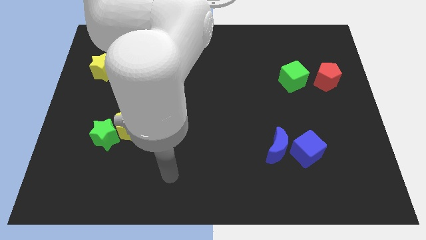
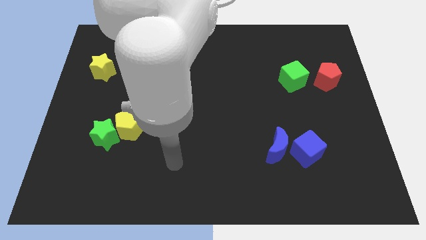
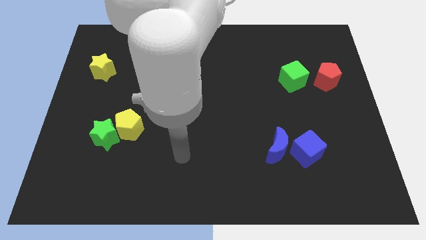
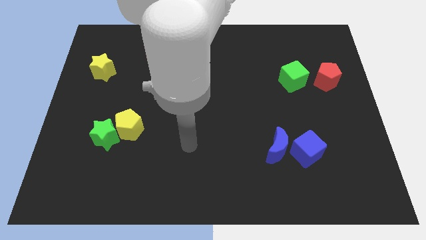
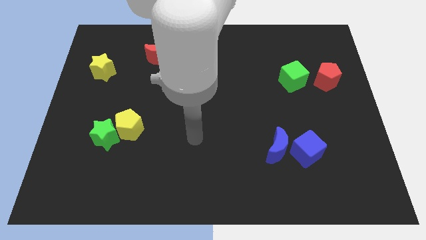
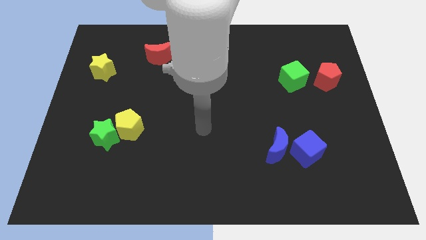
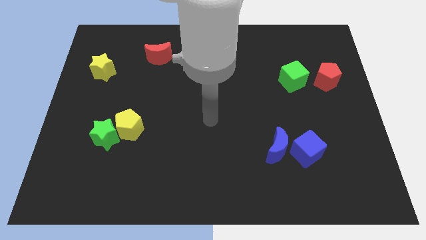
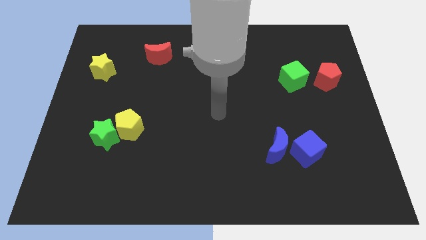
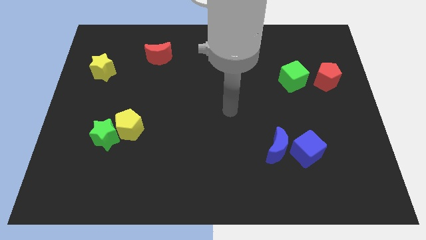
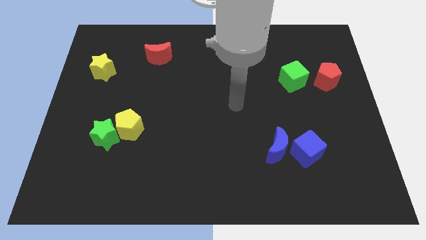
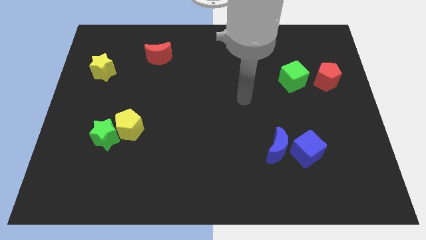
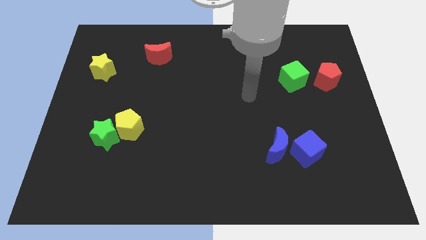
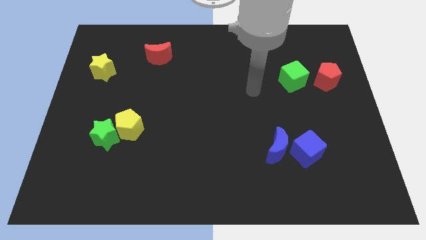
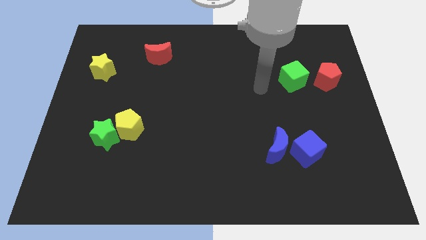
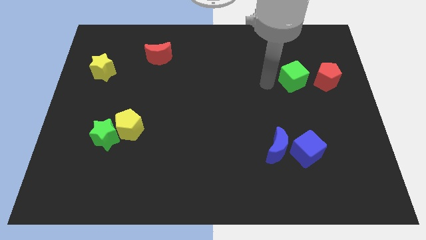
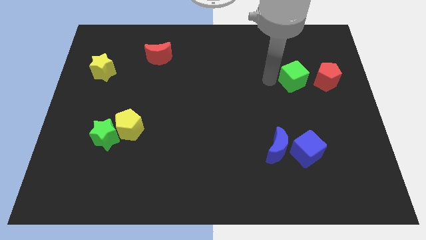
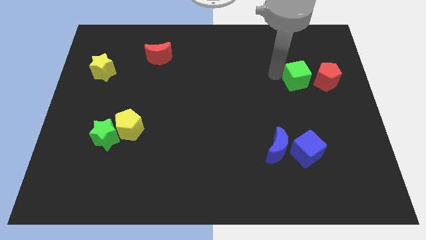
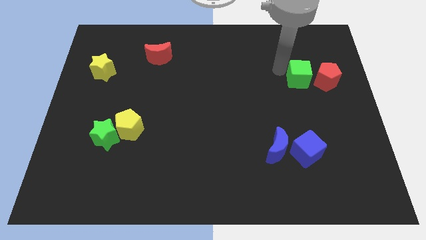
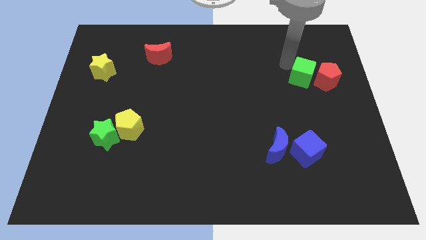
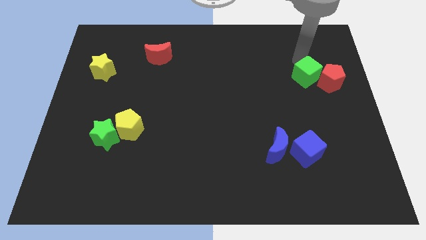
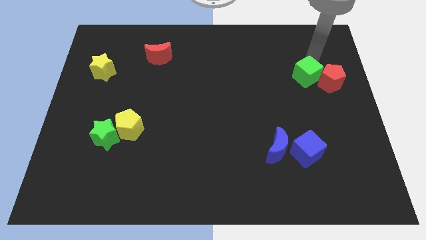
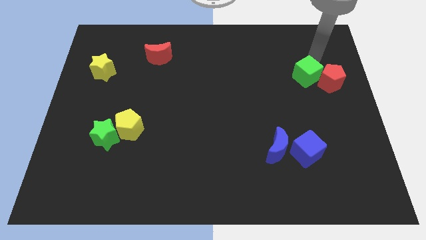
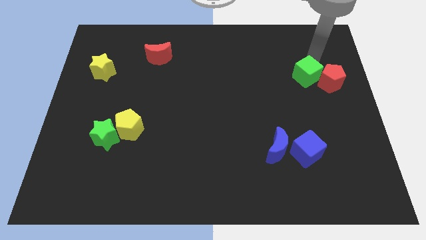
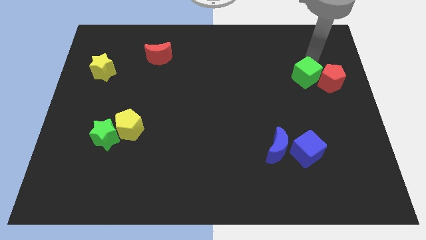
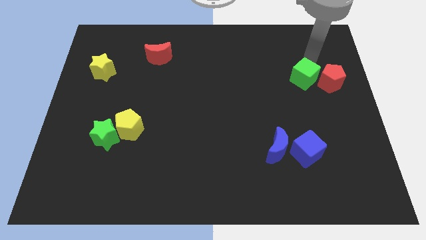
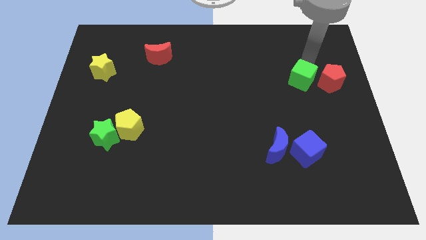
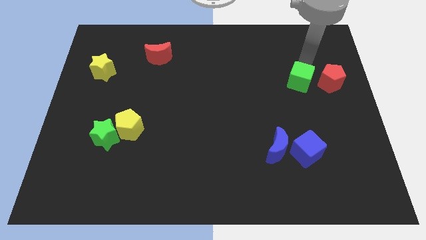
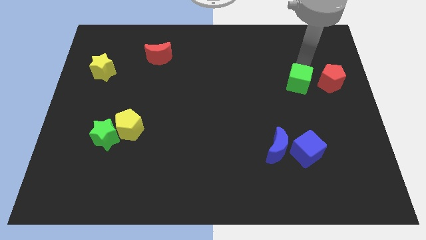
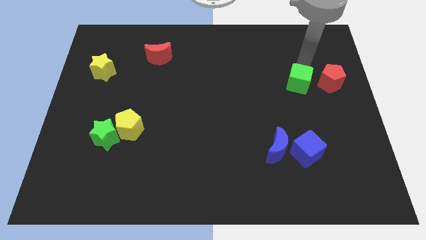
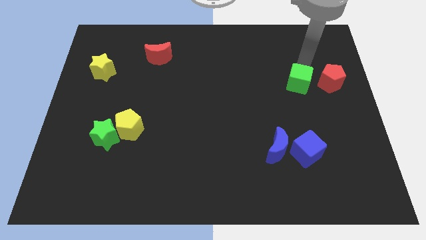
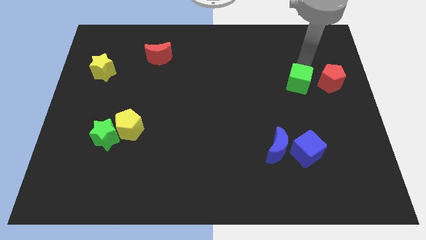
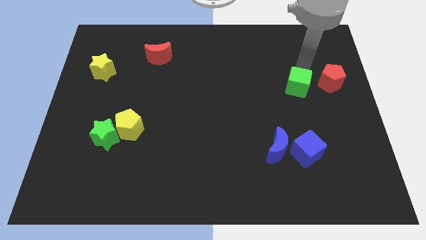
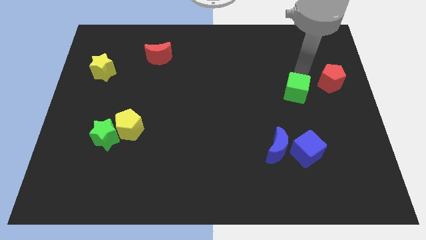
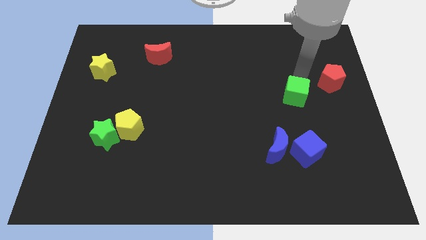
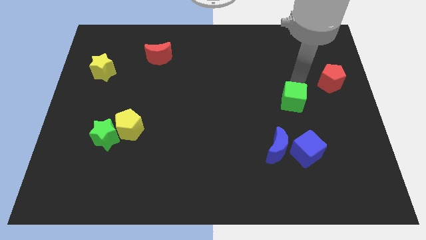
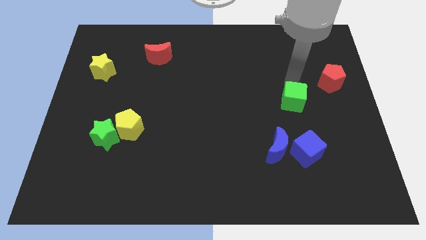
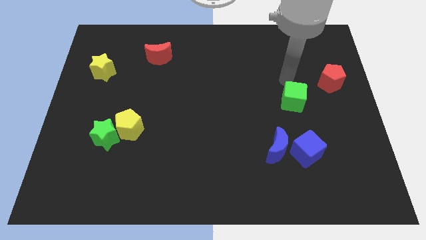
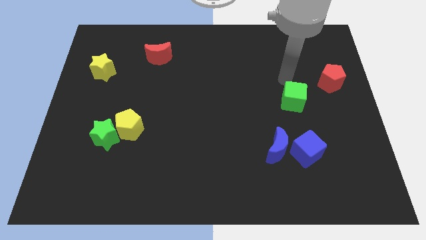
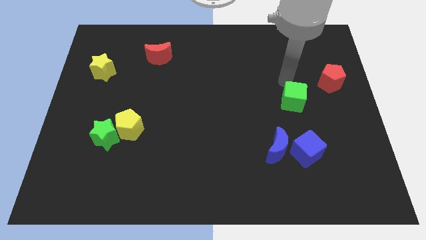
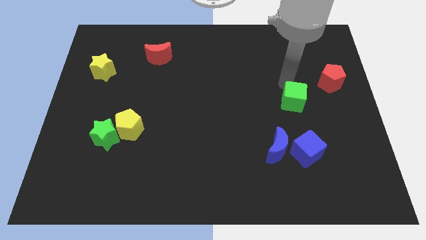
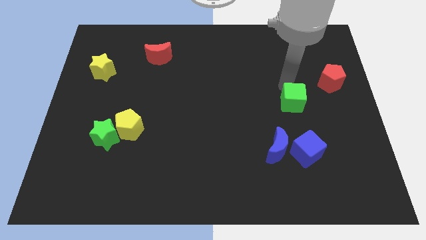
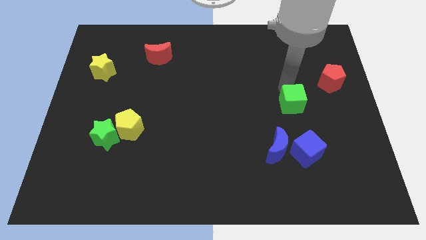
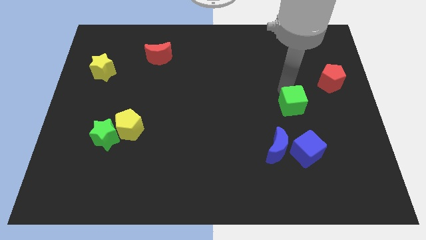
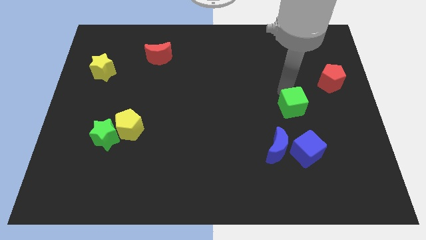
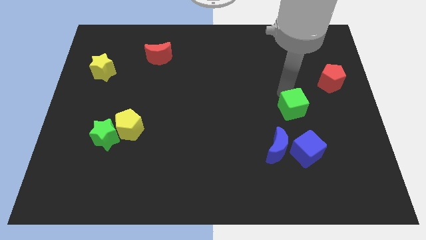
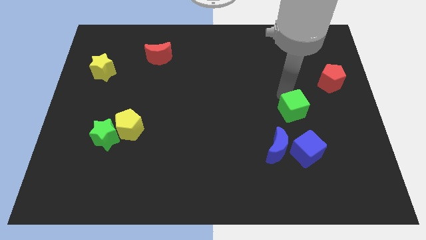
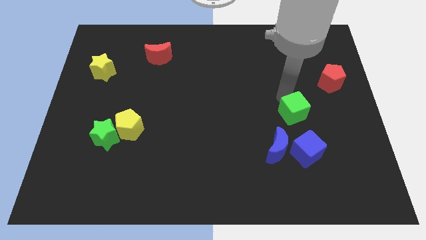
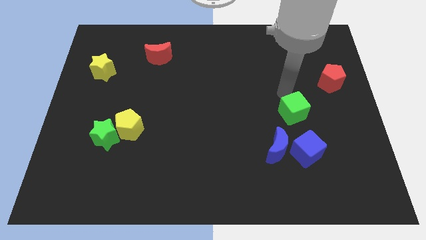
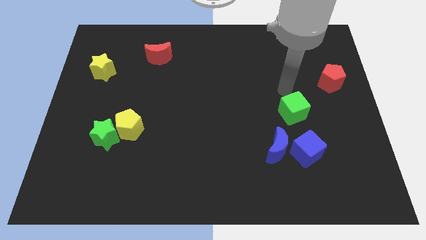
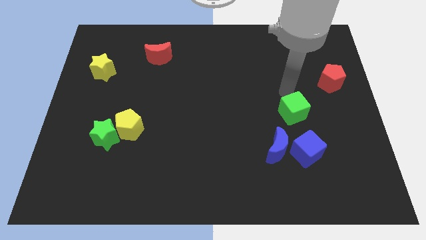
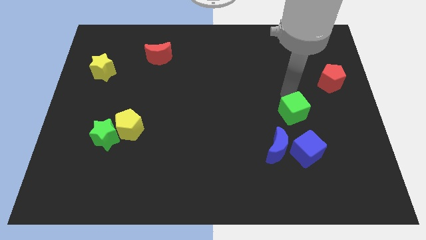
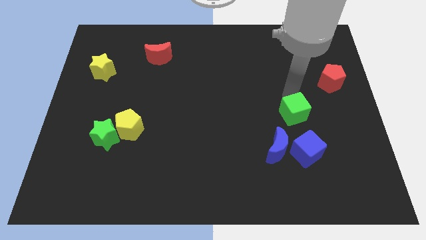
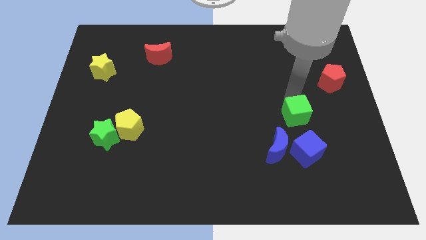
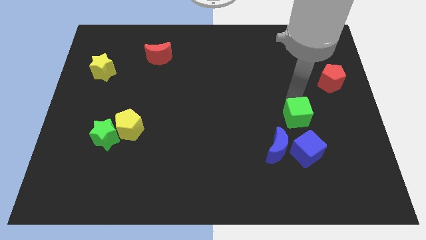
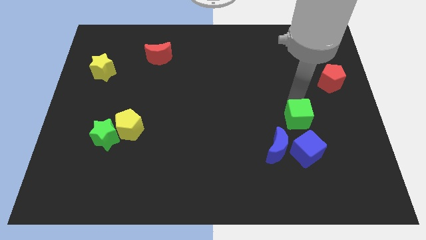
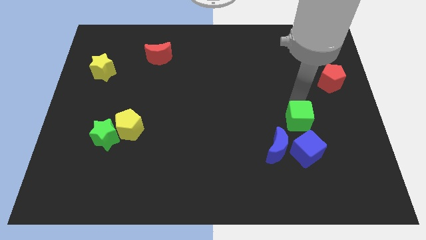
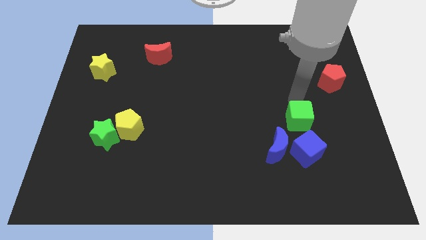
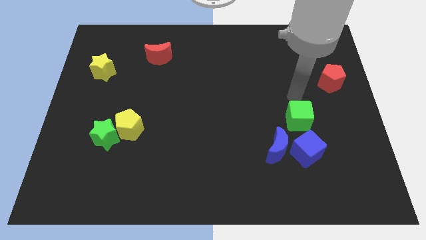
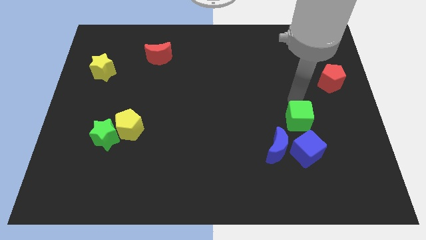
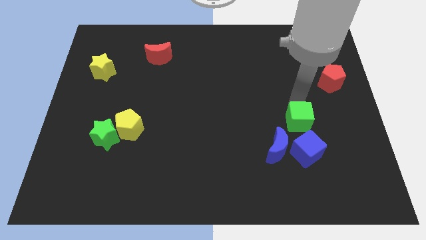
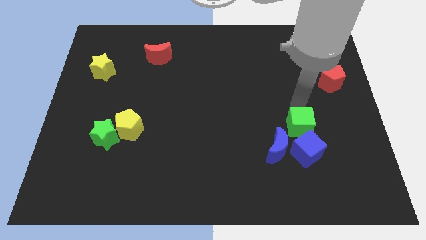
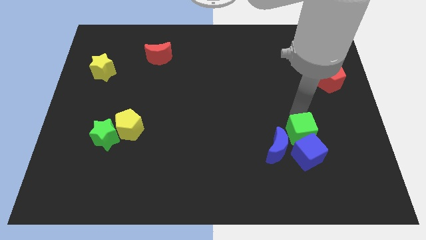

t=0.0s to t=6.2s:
push the green cube towards the blue cube

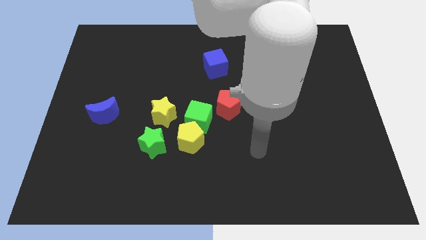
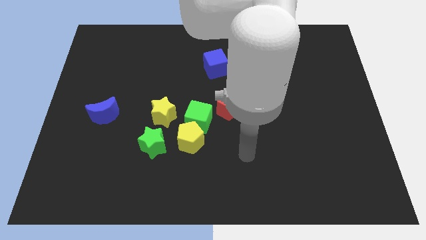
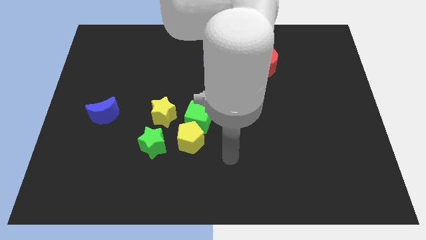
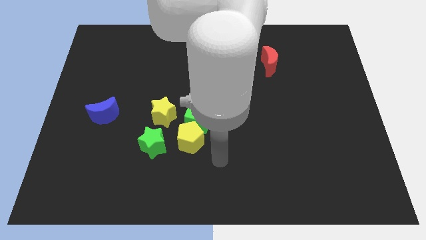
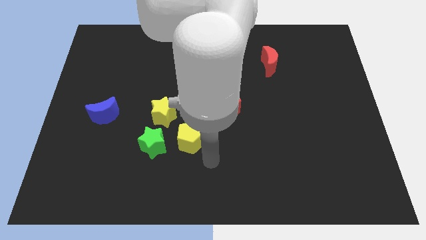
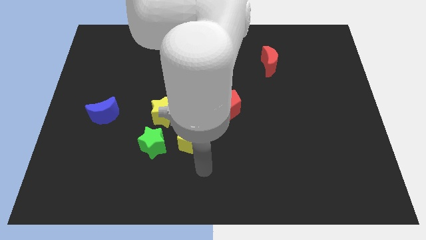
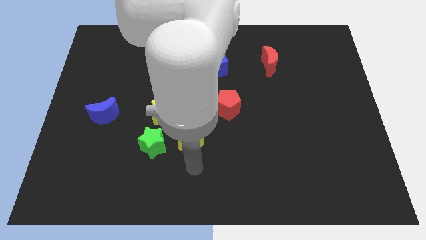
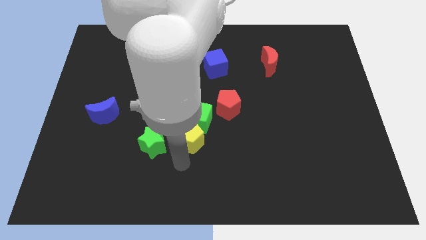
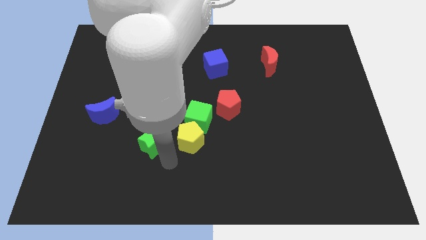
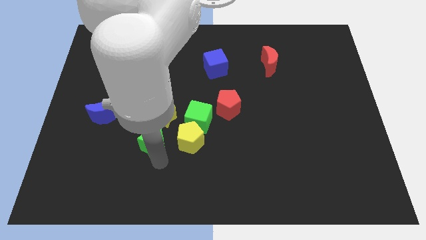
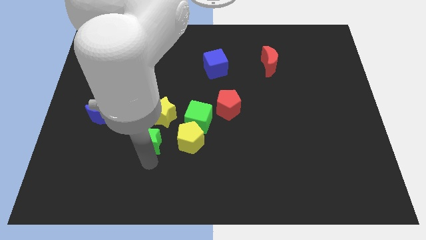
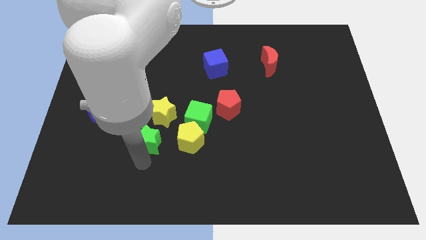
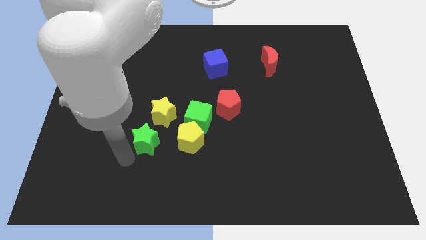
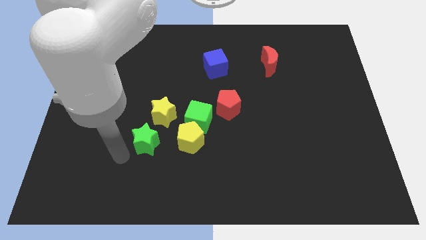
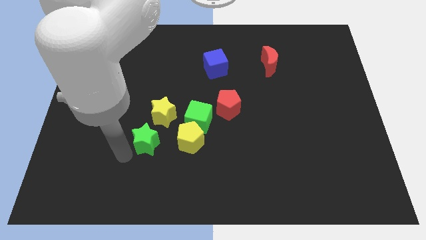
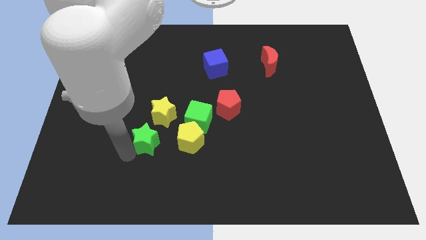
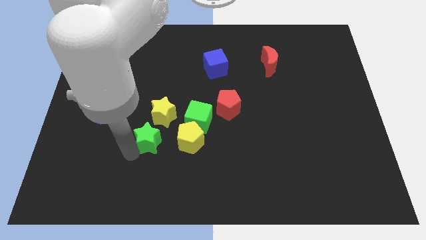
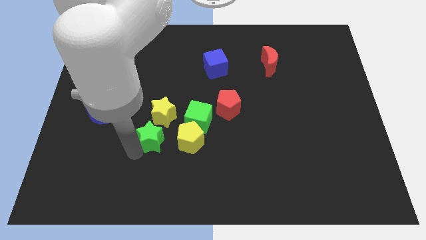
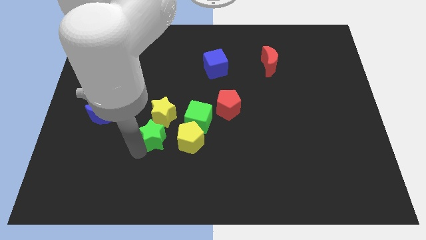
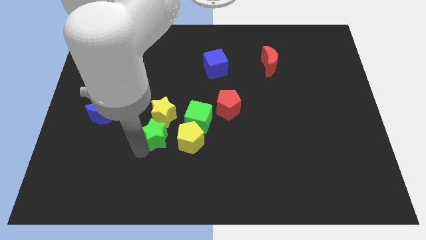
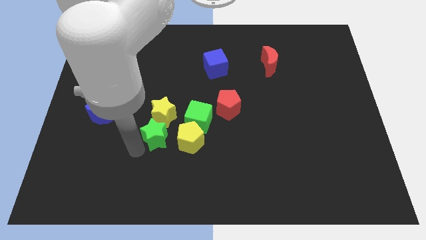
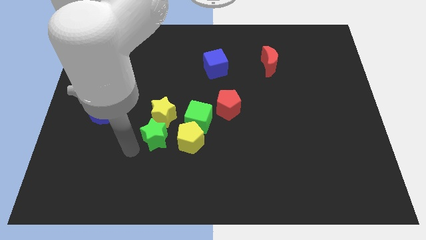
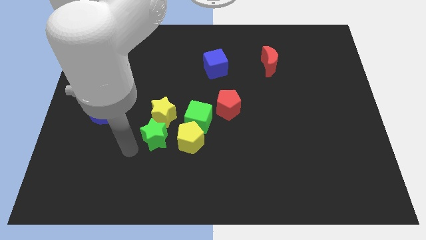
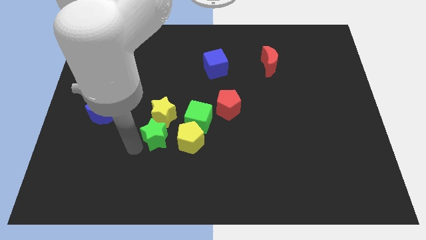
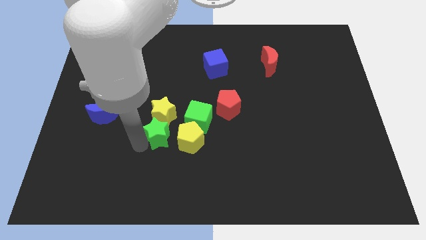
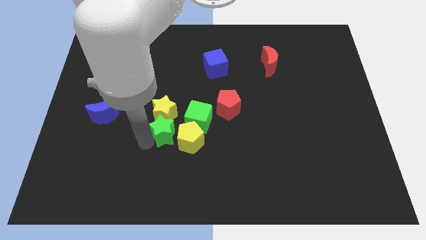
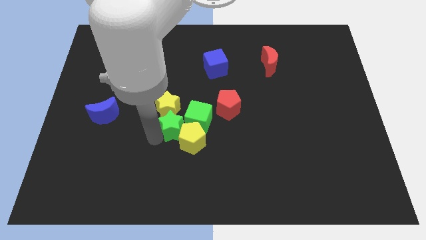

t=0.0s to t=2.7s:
move the green star to the green cube
